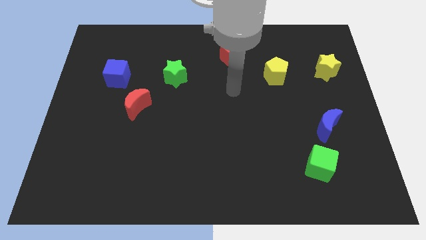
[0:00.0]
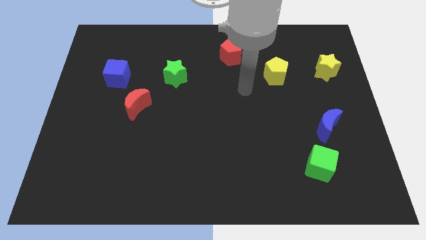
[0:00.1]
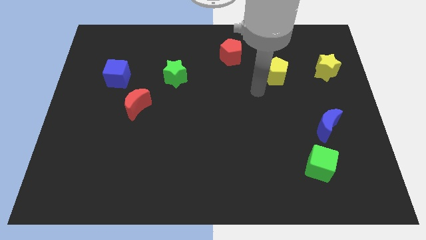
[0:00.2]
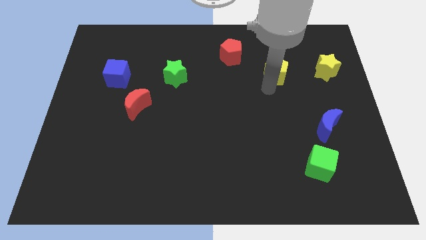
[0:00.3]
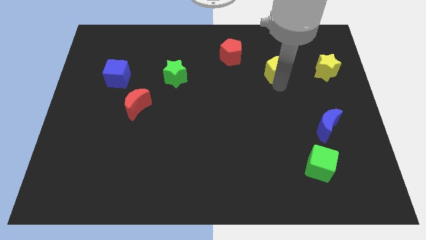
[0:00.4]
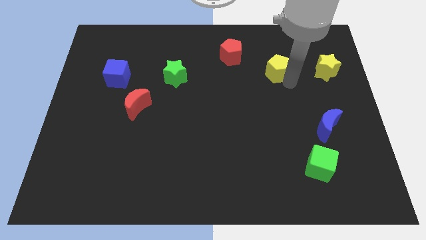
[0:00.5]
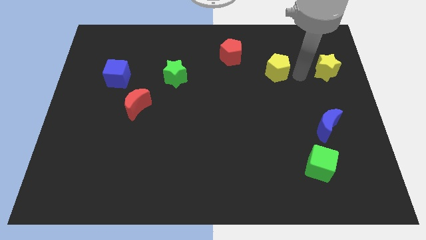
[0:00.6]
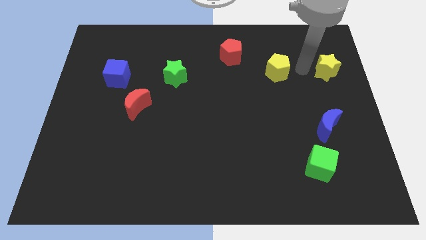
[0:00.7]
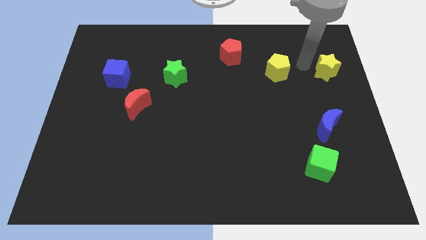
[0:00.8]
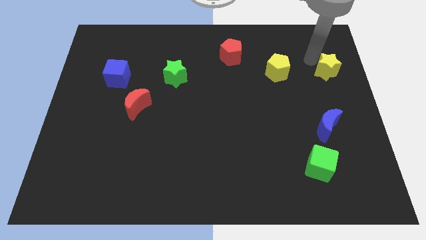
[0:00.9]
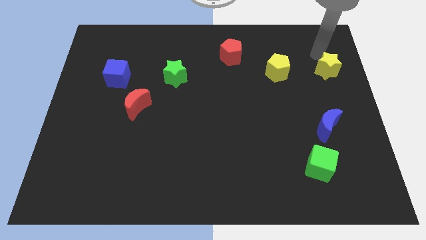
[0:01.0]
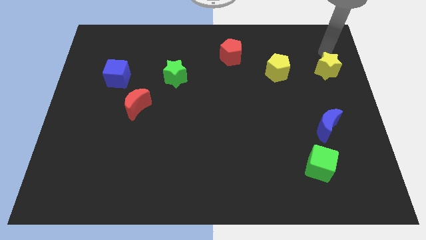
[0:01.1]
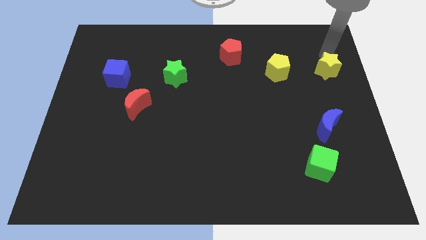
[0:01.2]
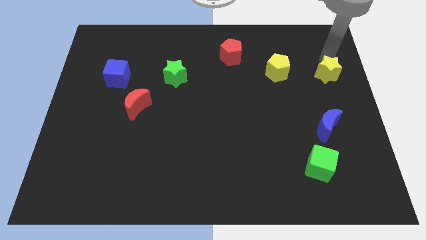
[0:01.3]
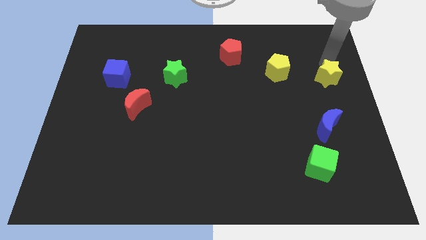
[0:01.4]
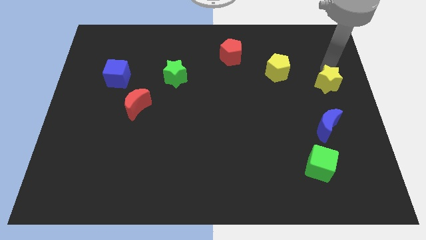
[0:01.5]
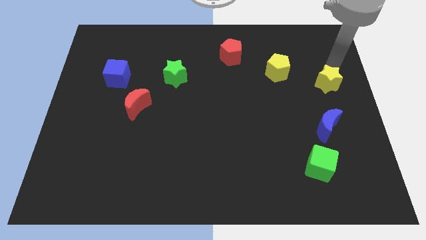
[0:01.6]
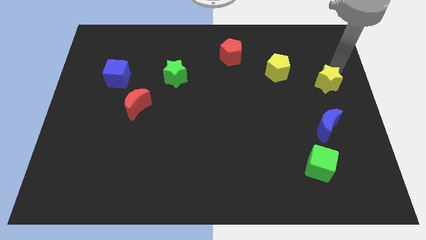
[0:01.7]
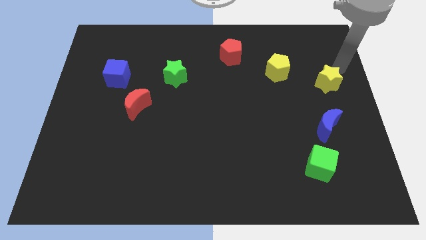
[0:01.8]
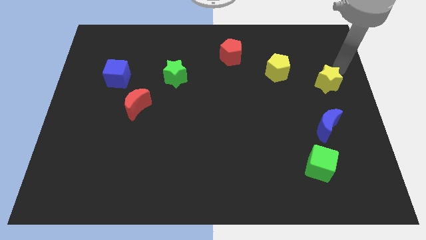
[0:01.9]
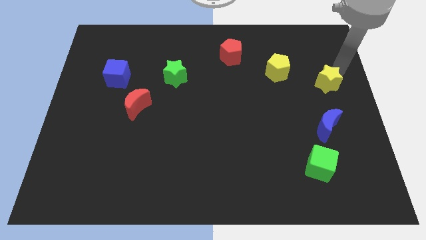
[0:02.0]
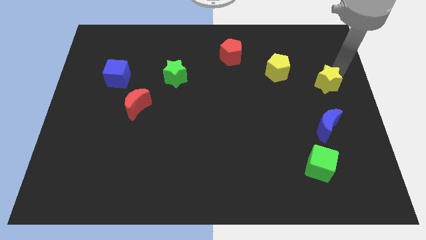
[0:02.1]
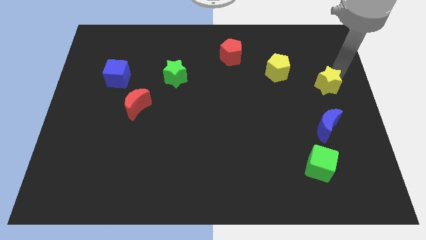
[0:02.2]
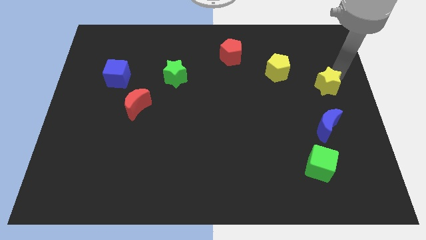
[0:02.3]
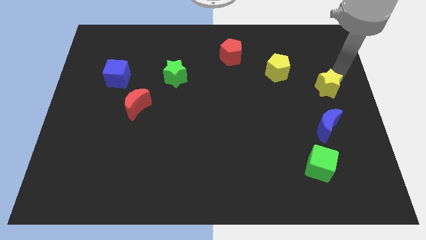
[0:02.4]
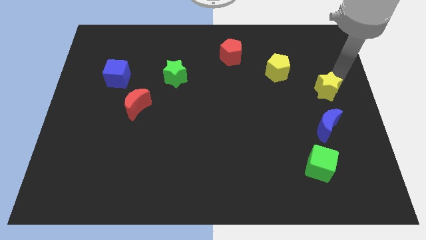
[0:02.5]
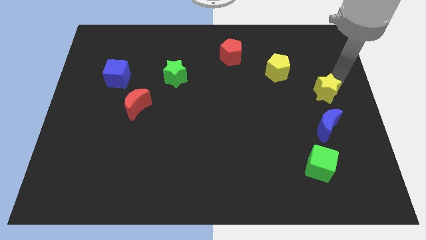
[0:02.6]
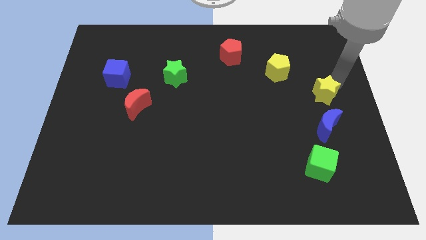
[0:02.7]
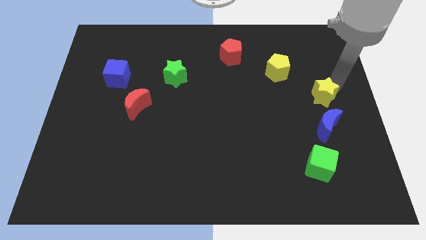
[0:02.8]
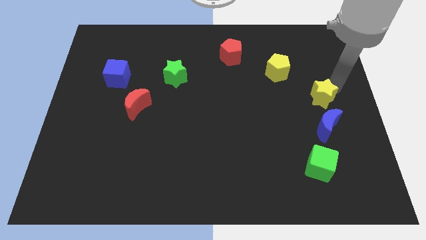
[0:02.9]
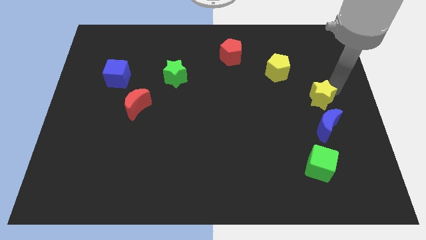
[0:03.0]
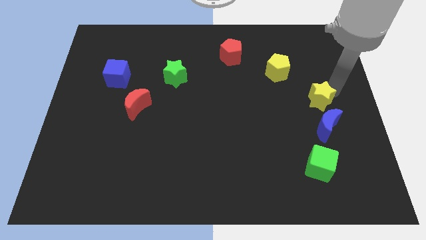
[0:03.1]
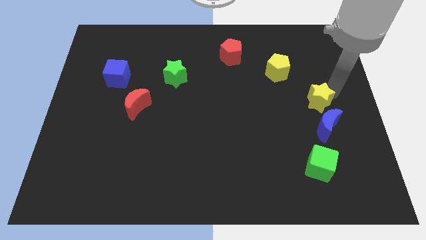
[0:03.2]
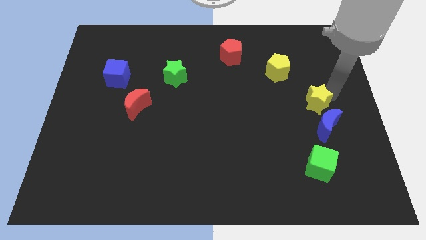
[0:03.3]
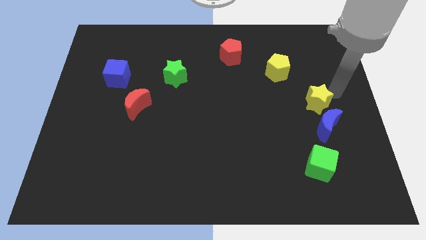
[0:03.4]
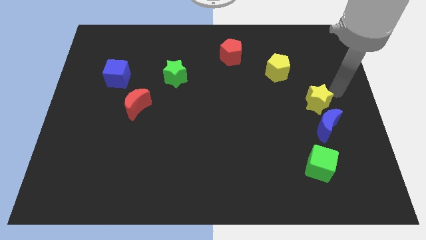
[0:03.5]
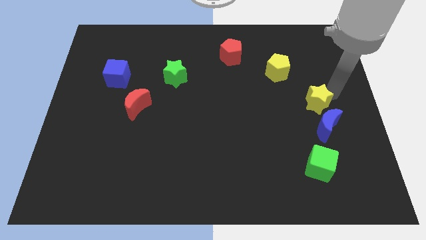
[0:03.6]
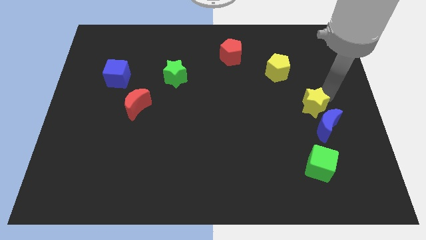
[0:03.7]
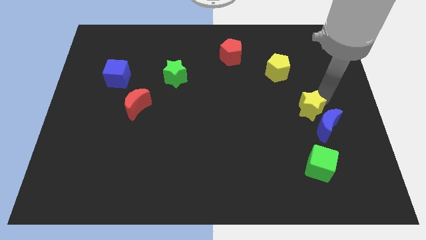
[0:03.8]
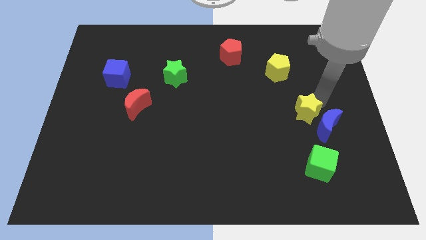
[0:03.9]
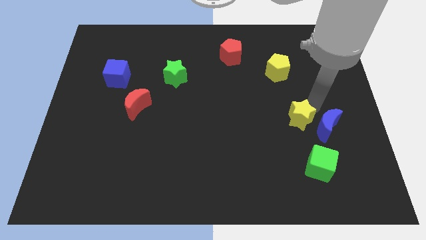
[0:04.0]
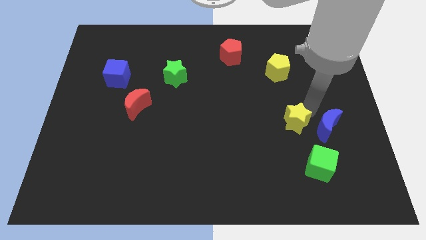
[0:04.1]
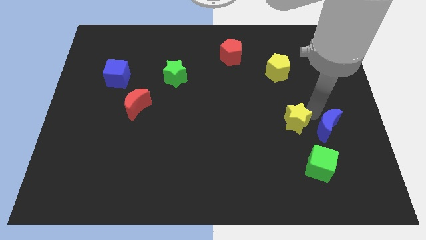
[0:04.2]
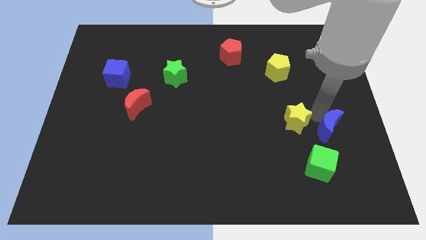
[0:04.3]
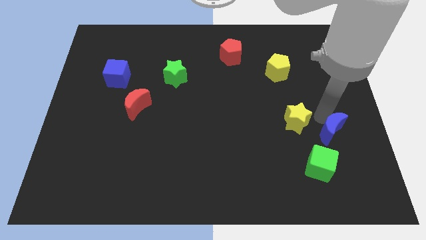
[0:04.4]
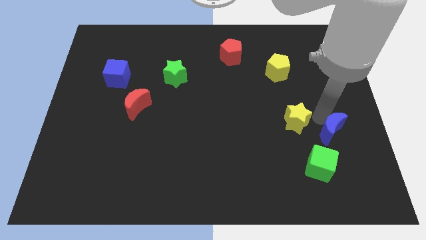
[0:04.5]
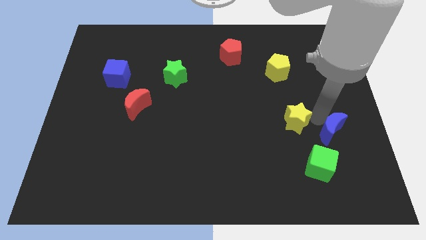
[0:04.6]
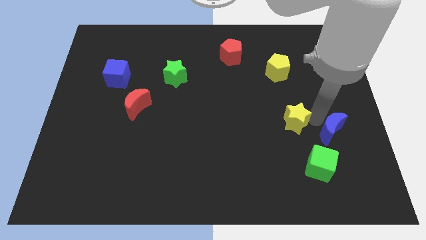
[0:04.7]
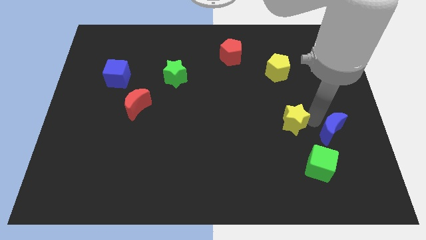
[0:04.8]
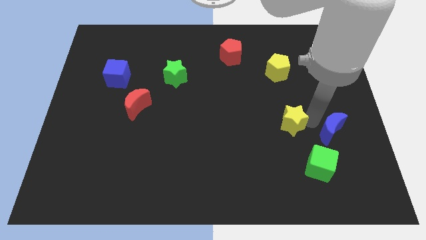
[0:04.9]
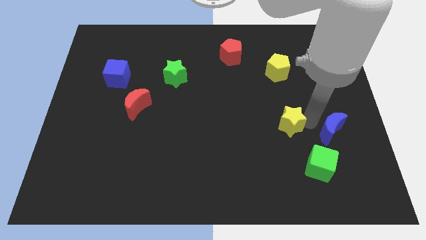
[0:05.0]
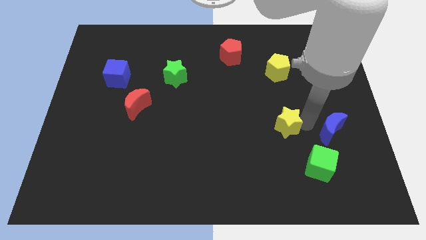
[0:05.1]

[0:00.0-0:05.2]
push the yellow star downwards and to the left diagonally

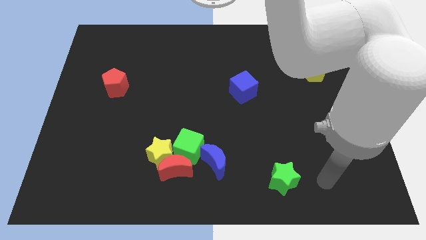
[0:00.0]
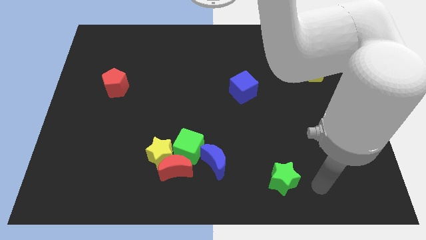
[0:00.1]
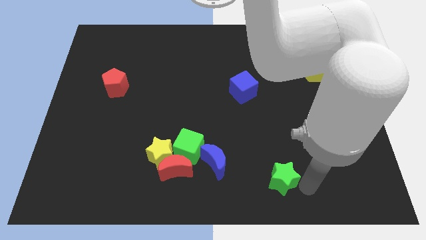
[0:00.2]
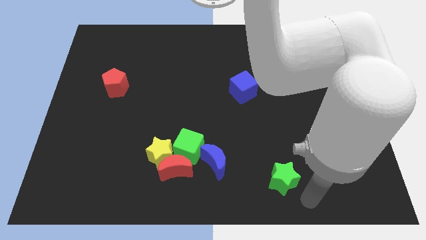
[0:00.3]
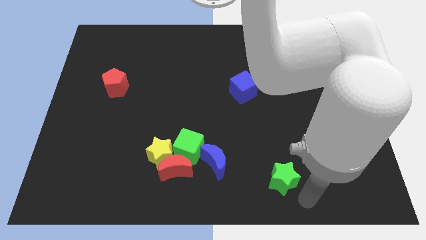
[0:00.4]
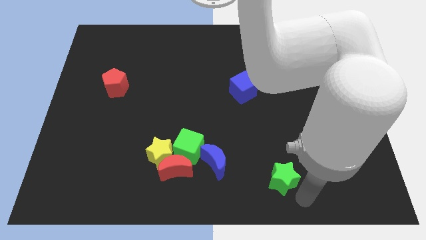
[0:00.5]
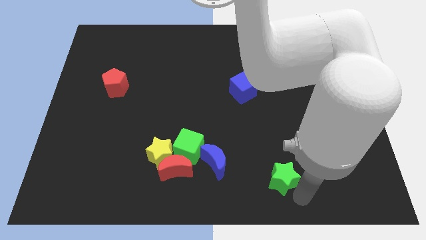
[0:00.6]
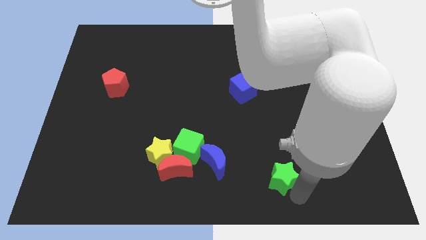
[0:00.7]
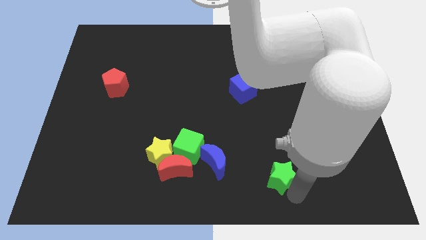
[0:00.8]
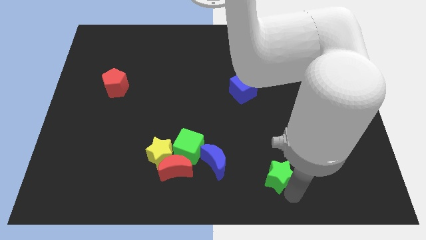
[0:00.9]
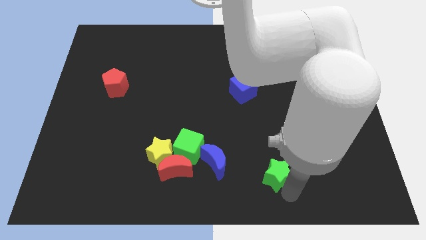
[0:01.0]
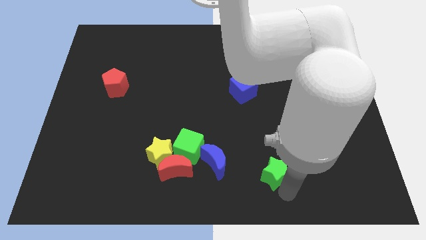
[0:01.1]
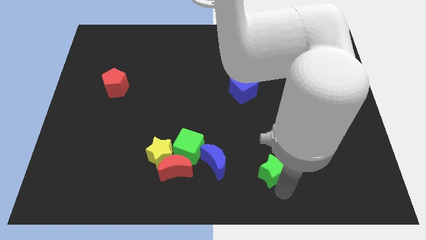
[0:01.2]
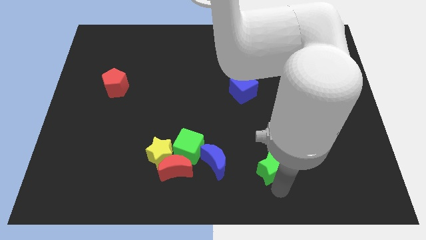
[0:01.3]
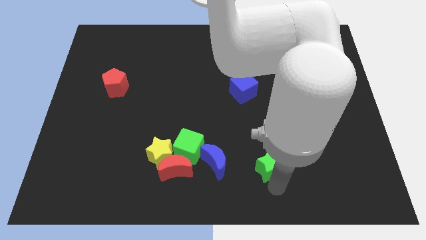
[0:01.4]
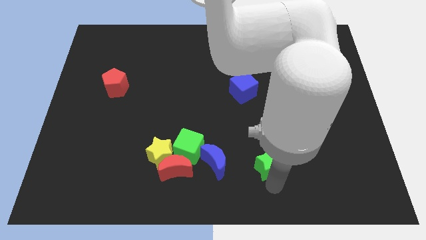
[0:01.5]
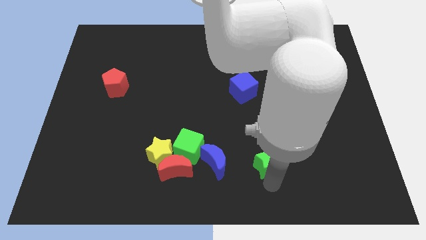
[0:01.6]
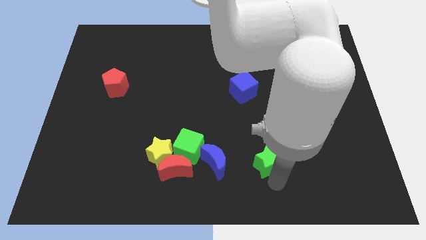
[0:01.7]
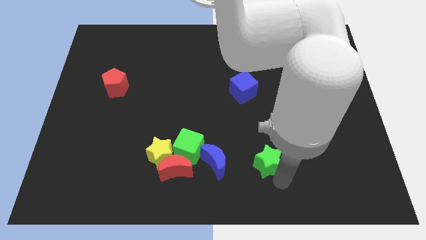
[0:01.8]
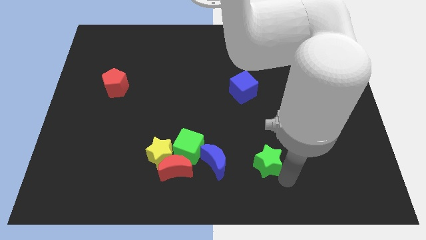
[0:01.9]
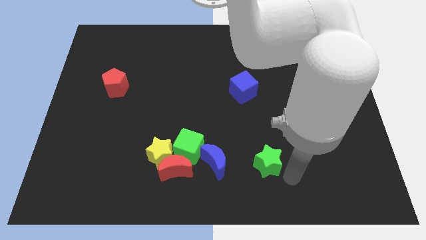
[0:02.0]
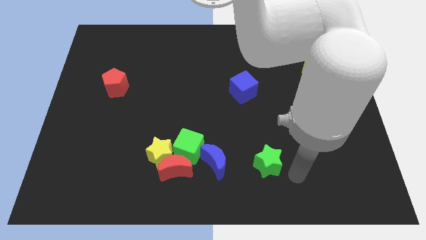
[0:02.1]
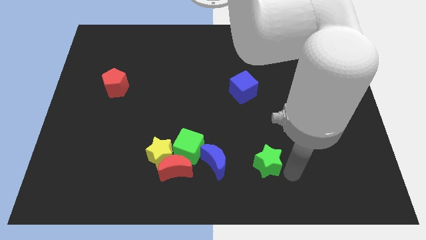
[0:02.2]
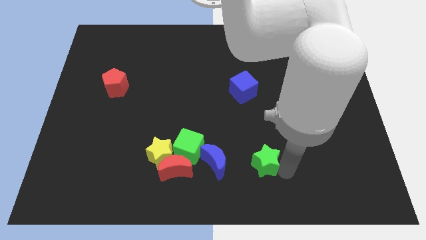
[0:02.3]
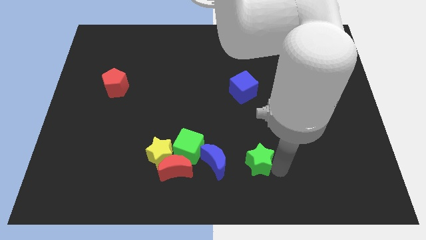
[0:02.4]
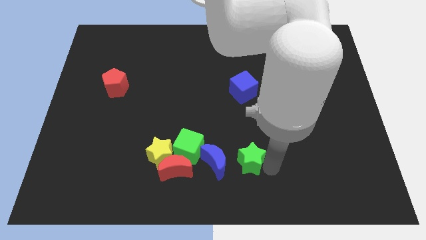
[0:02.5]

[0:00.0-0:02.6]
slightly slide the green star upwards and then left
